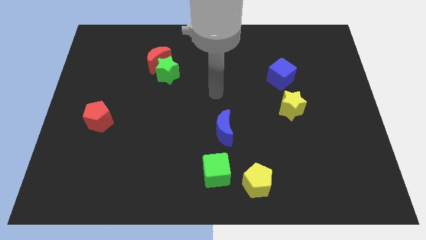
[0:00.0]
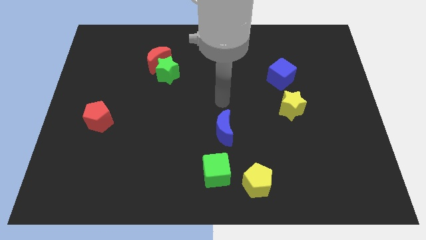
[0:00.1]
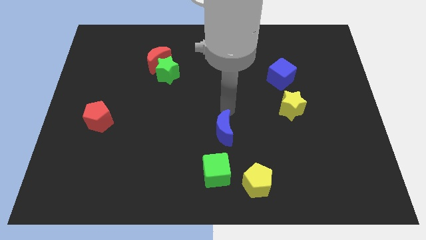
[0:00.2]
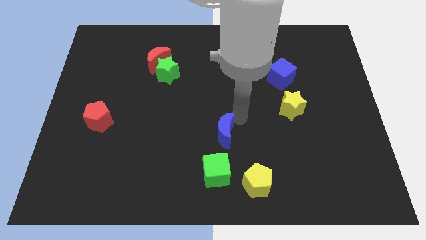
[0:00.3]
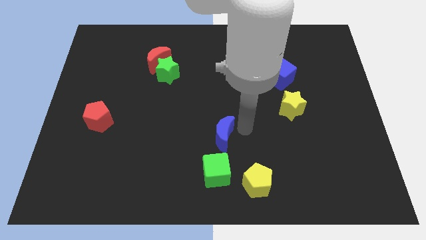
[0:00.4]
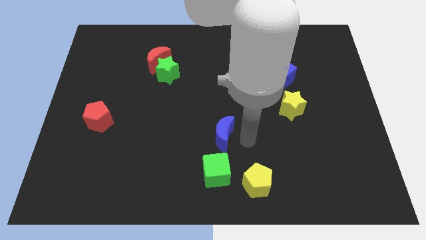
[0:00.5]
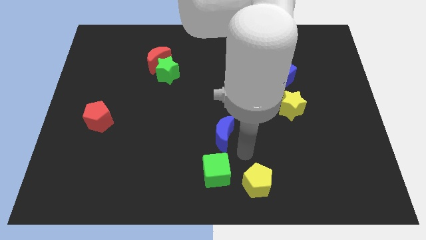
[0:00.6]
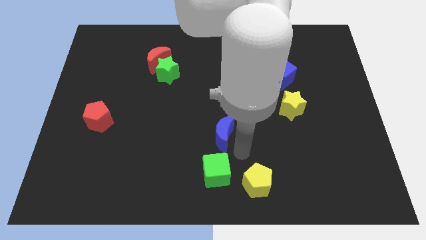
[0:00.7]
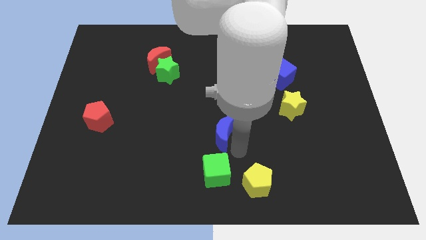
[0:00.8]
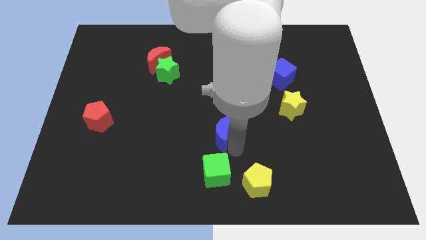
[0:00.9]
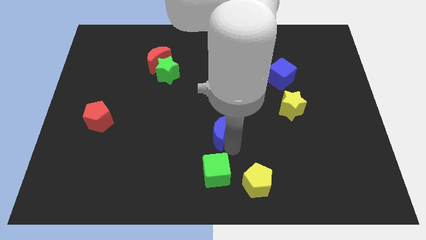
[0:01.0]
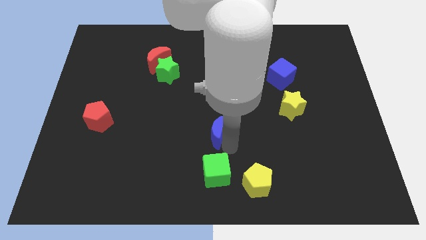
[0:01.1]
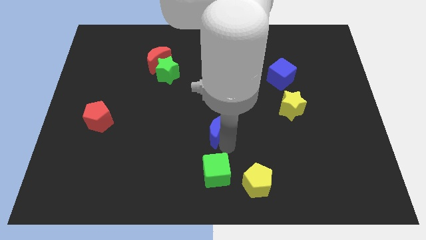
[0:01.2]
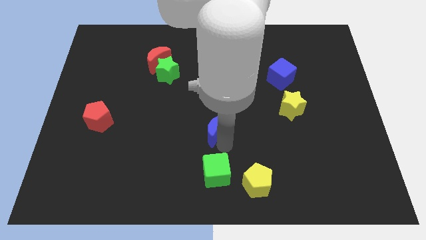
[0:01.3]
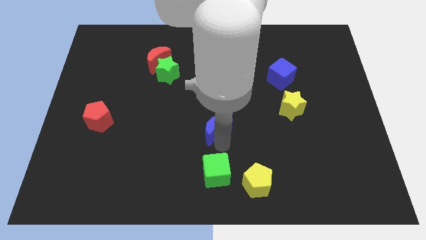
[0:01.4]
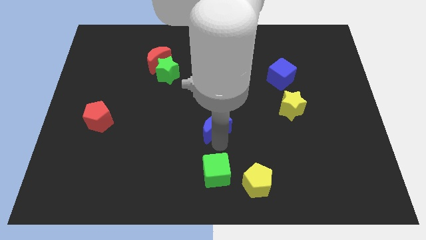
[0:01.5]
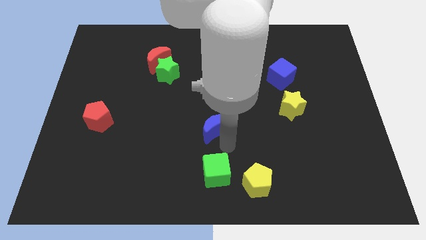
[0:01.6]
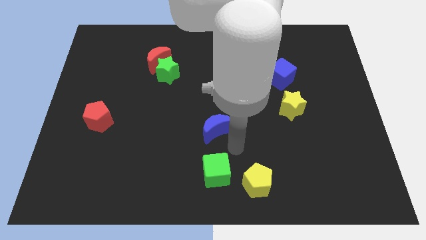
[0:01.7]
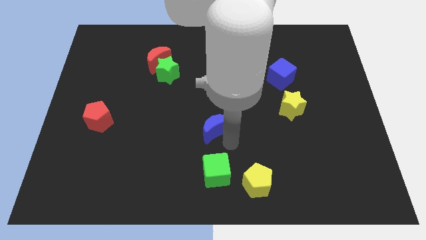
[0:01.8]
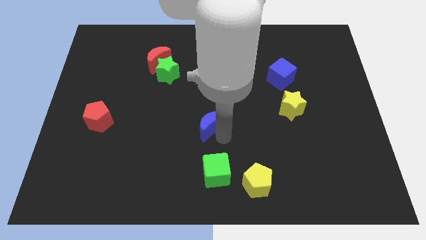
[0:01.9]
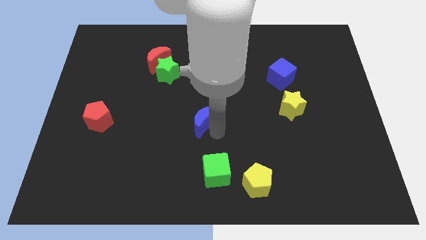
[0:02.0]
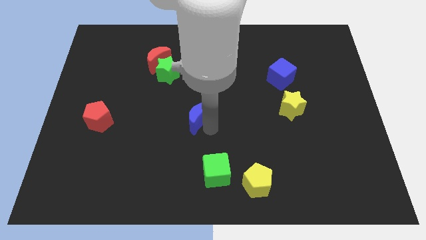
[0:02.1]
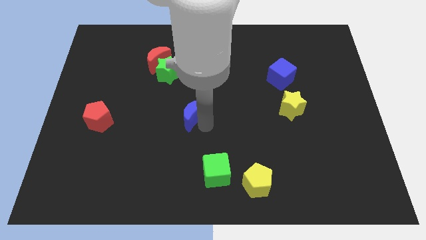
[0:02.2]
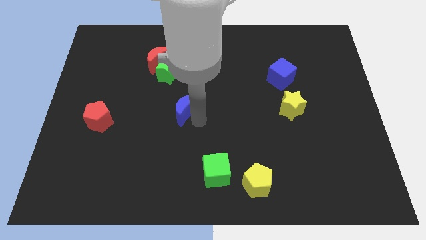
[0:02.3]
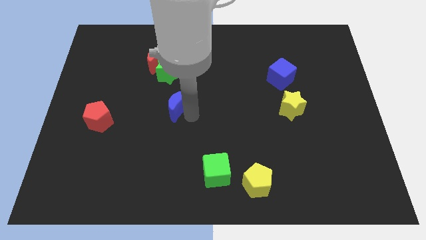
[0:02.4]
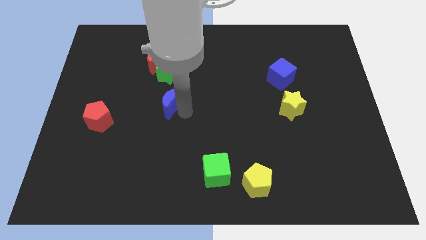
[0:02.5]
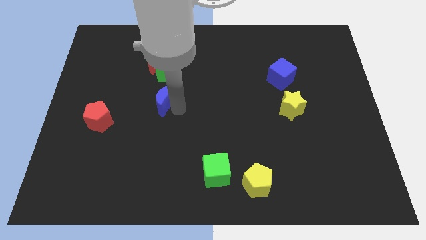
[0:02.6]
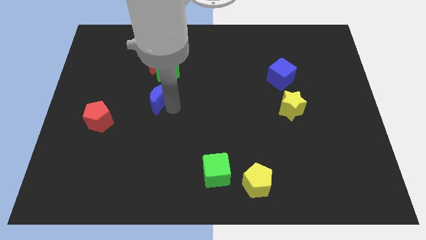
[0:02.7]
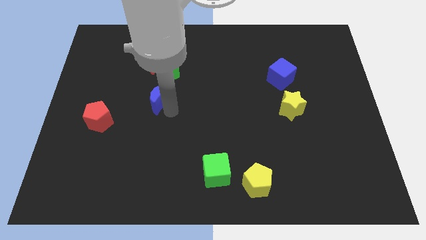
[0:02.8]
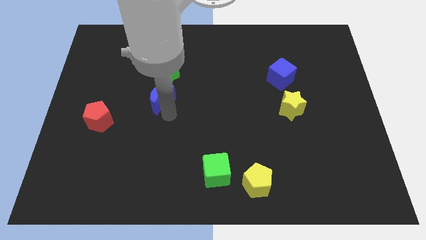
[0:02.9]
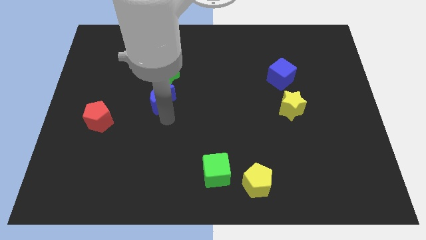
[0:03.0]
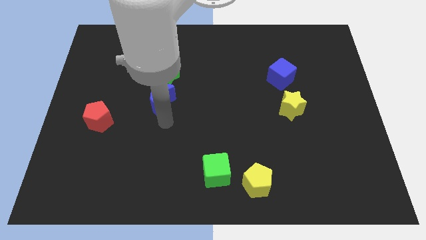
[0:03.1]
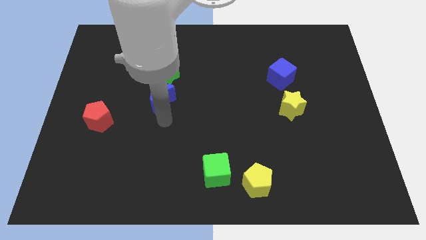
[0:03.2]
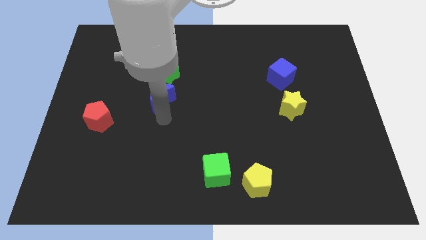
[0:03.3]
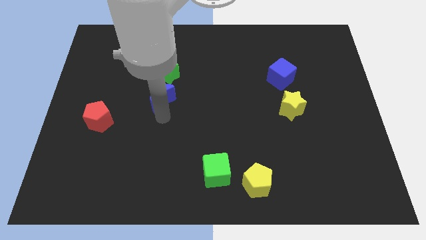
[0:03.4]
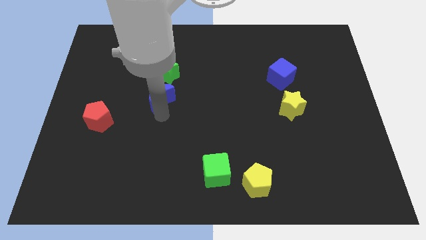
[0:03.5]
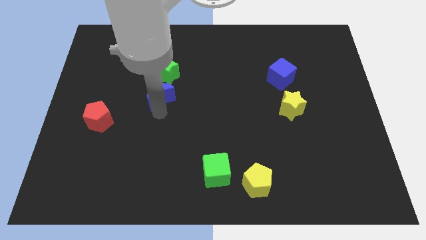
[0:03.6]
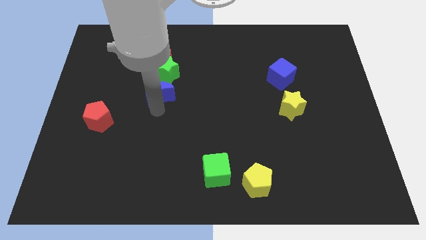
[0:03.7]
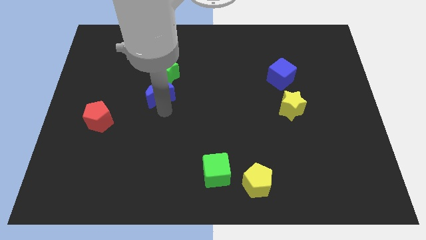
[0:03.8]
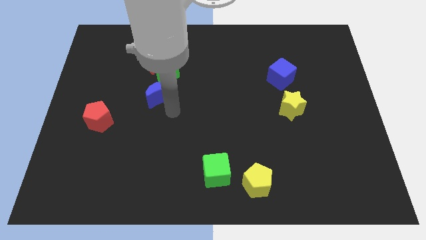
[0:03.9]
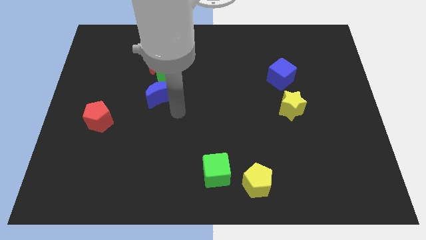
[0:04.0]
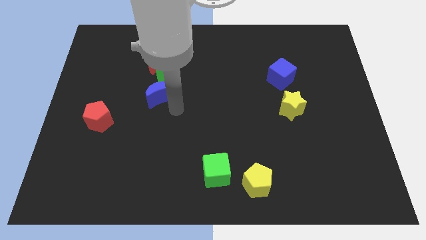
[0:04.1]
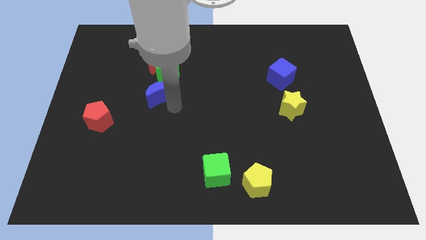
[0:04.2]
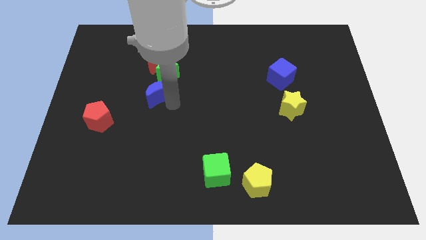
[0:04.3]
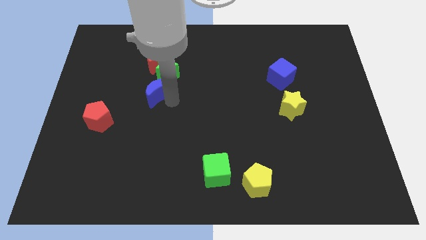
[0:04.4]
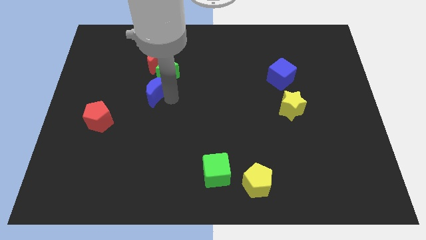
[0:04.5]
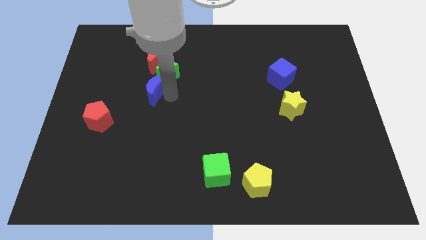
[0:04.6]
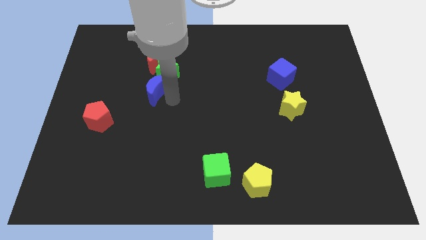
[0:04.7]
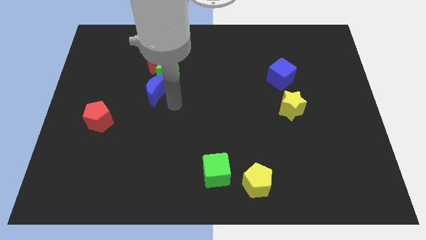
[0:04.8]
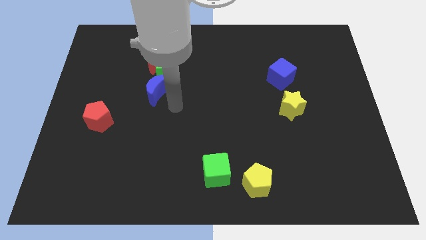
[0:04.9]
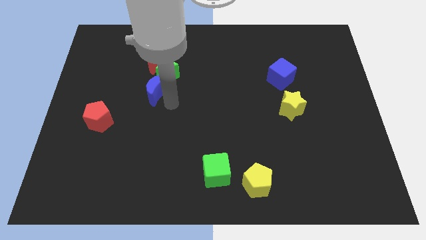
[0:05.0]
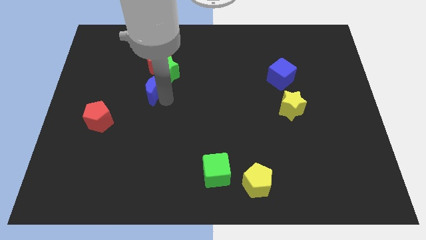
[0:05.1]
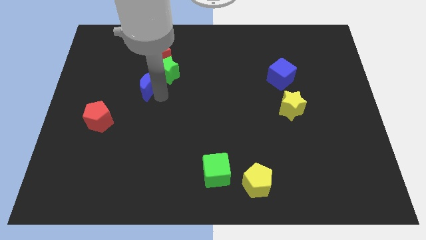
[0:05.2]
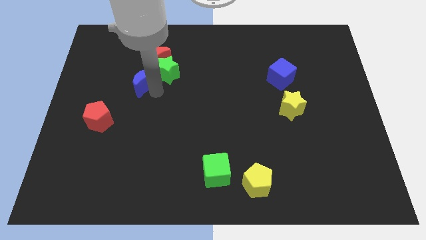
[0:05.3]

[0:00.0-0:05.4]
move the blue moon to the bottom left side of the red moon

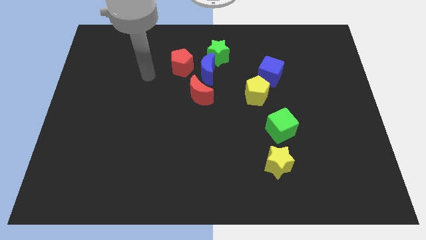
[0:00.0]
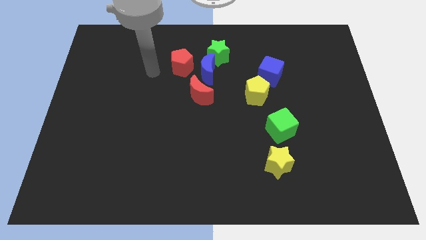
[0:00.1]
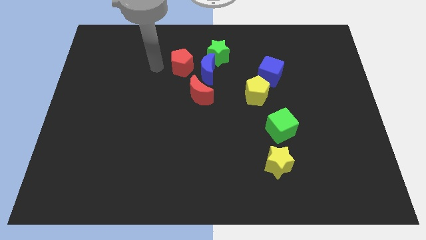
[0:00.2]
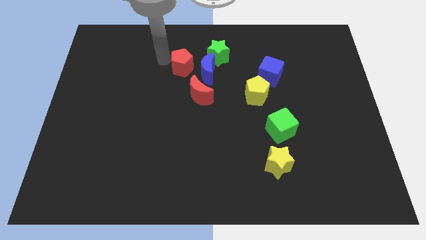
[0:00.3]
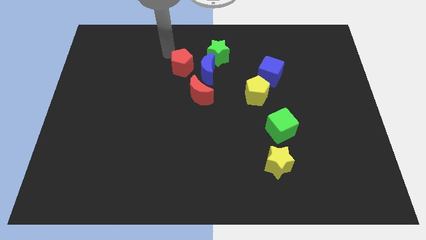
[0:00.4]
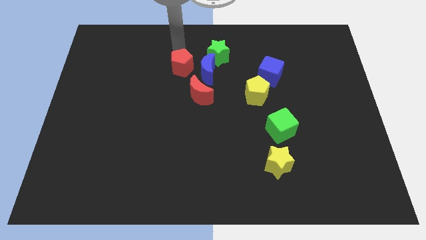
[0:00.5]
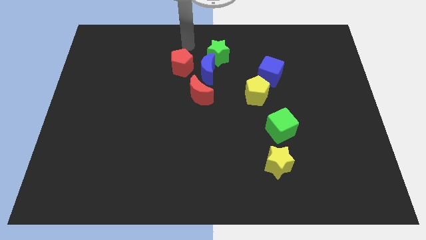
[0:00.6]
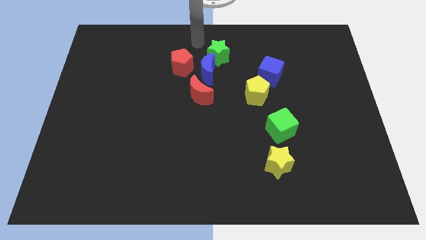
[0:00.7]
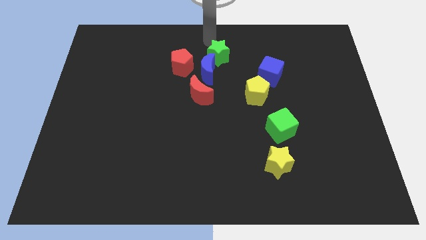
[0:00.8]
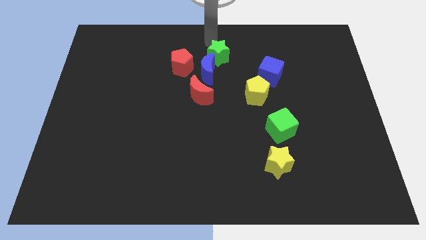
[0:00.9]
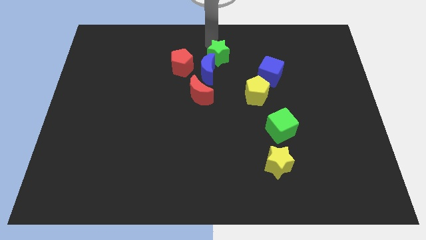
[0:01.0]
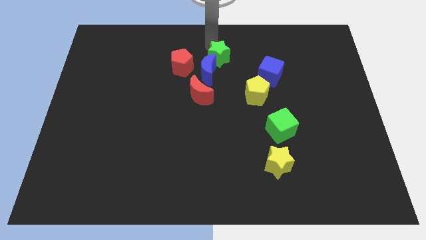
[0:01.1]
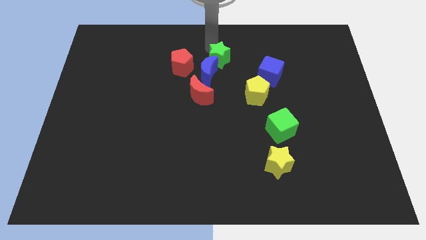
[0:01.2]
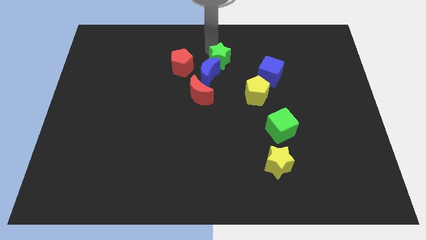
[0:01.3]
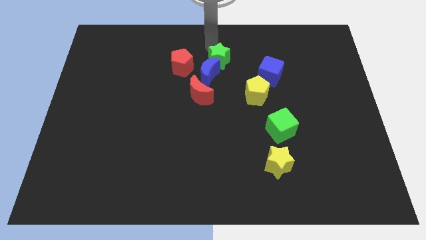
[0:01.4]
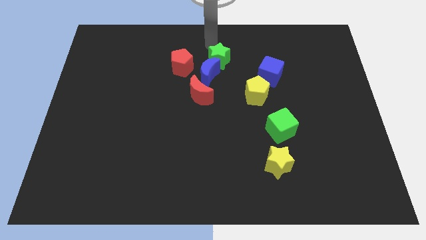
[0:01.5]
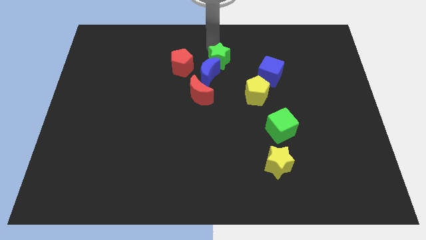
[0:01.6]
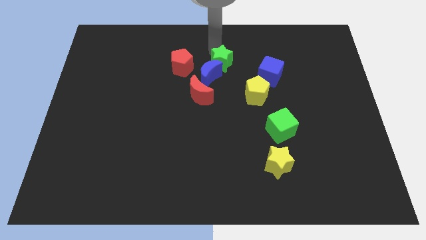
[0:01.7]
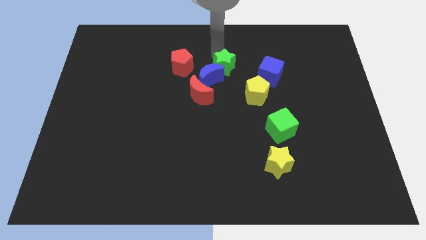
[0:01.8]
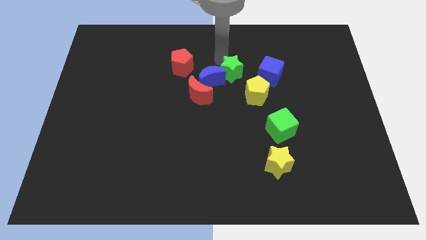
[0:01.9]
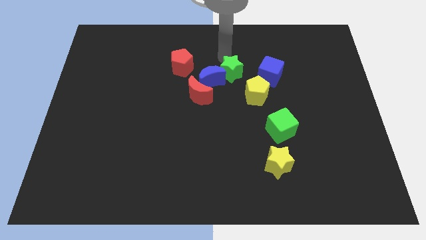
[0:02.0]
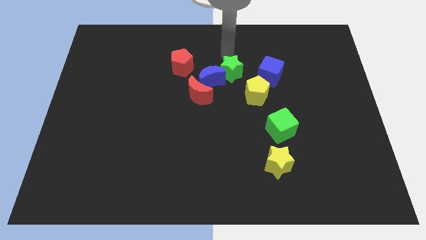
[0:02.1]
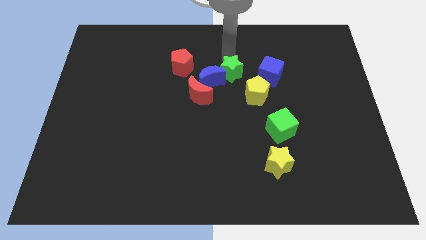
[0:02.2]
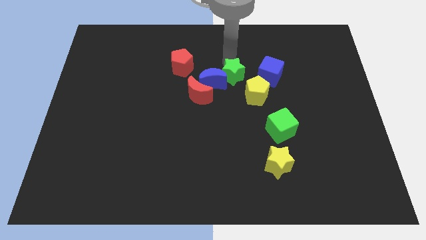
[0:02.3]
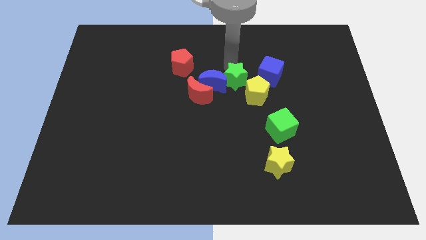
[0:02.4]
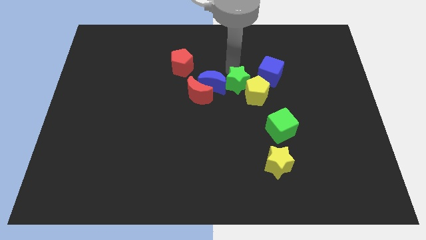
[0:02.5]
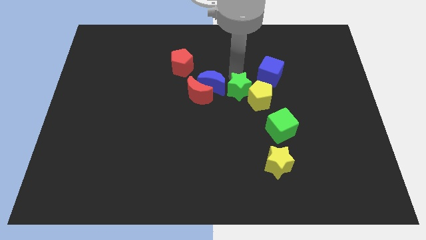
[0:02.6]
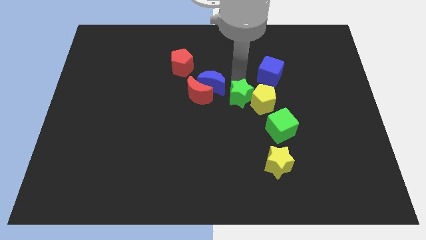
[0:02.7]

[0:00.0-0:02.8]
put the green star to the bottom left of the yellow pentagon

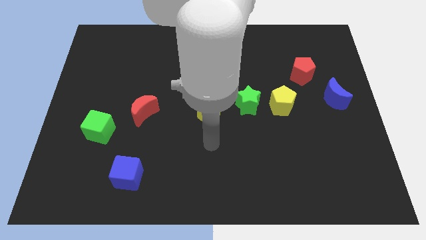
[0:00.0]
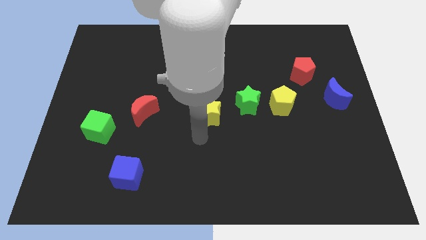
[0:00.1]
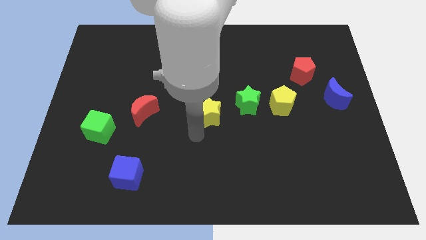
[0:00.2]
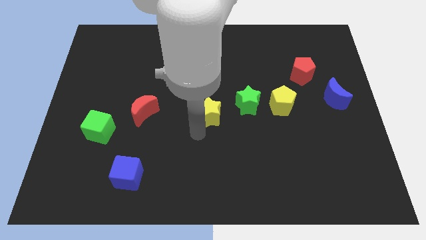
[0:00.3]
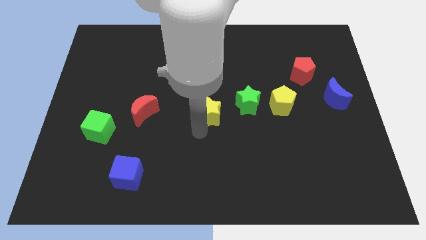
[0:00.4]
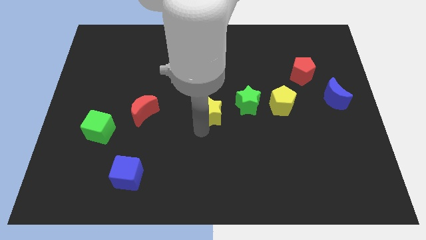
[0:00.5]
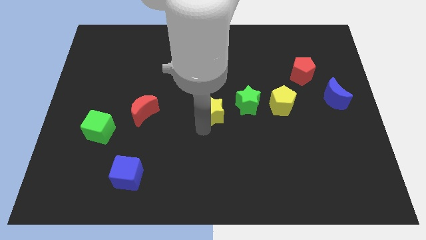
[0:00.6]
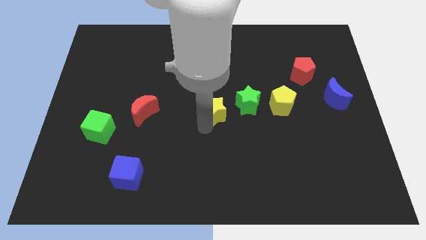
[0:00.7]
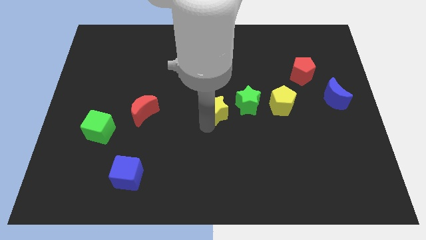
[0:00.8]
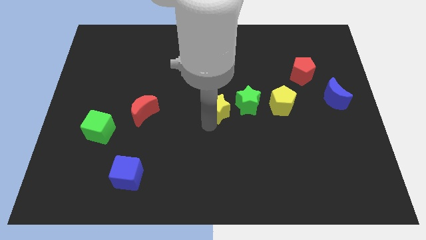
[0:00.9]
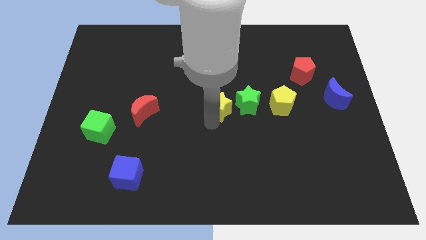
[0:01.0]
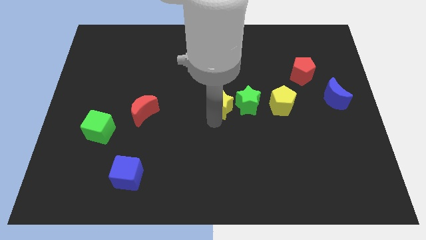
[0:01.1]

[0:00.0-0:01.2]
move the yellow star diagonally up and to the left of the green star
